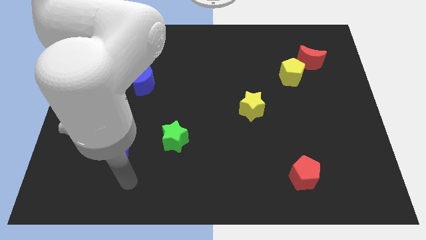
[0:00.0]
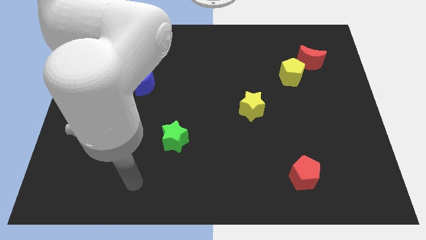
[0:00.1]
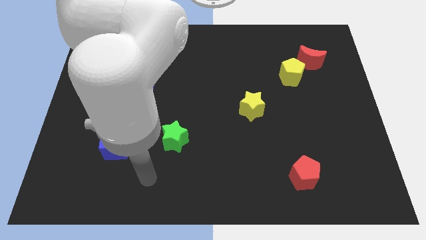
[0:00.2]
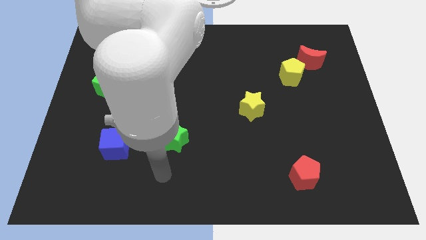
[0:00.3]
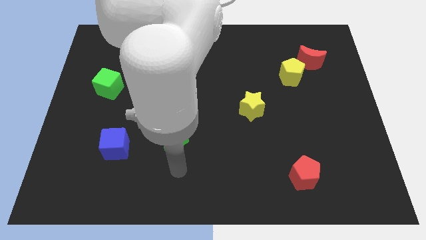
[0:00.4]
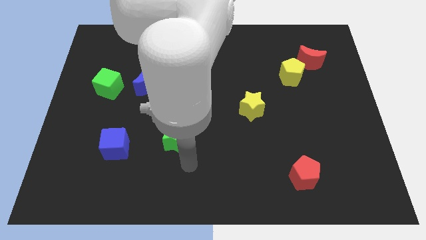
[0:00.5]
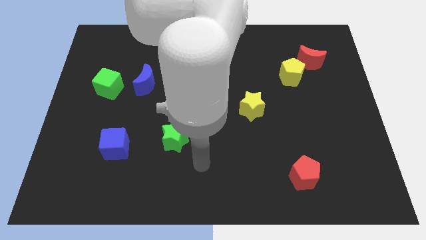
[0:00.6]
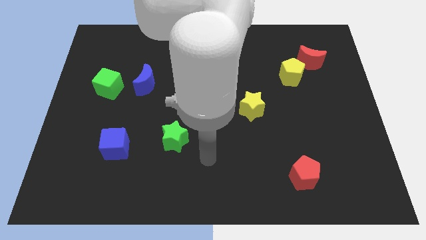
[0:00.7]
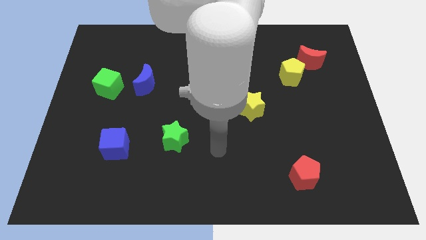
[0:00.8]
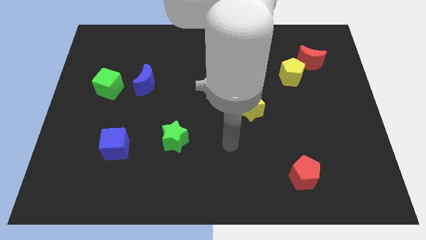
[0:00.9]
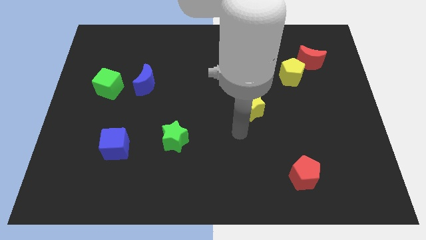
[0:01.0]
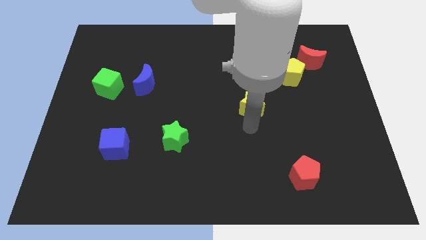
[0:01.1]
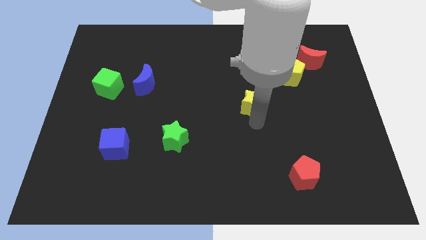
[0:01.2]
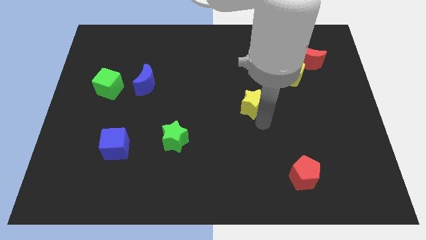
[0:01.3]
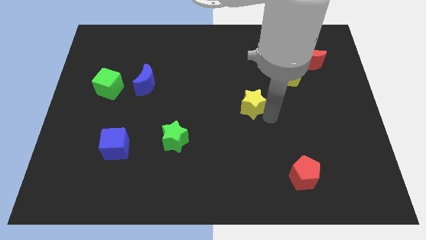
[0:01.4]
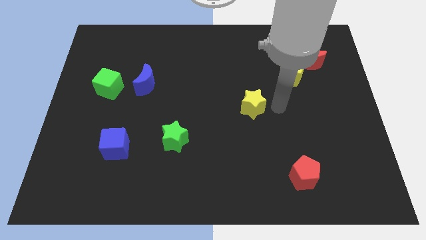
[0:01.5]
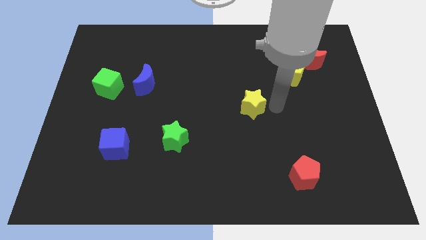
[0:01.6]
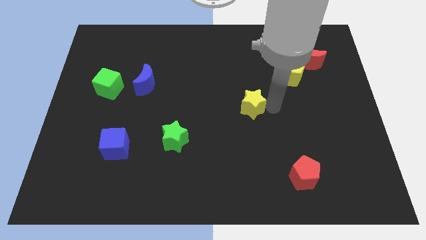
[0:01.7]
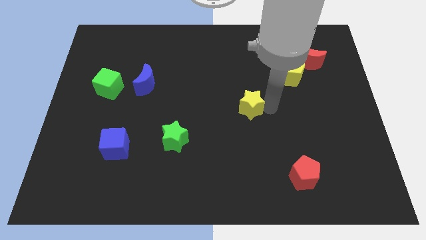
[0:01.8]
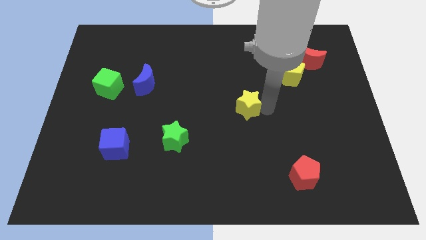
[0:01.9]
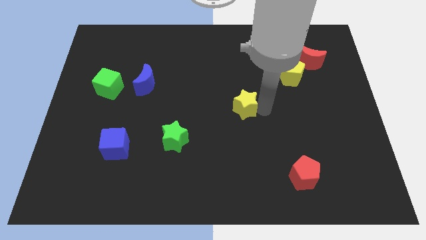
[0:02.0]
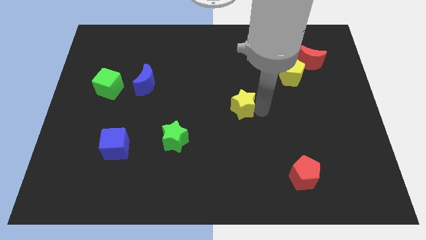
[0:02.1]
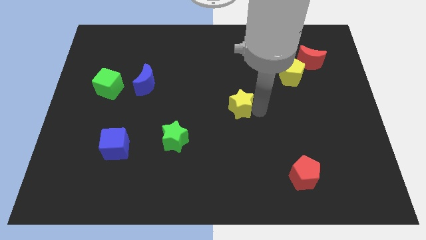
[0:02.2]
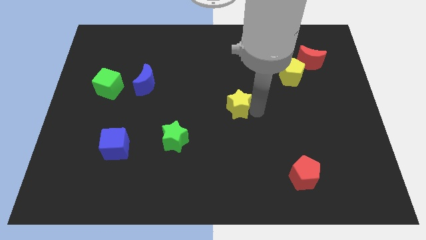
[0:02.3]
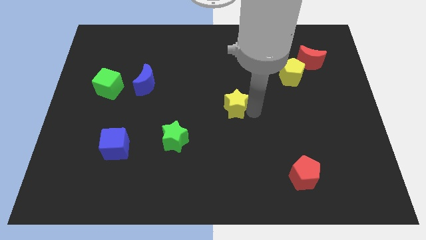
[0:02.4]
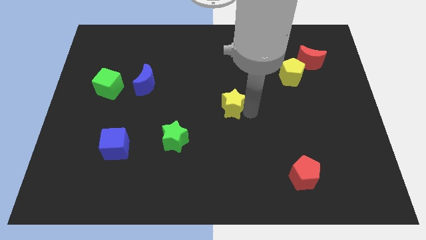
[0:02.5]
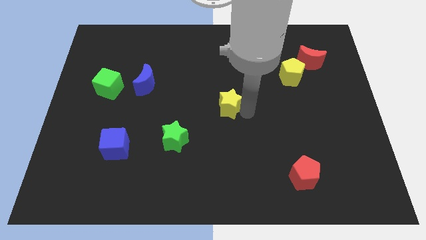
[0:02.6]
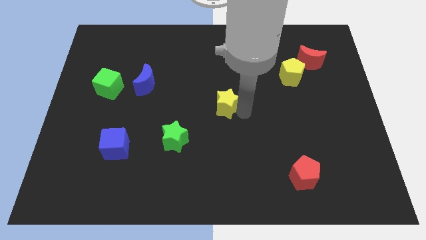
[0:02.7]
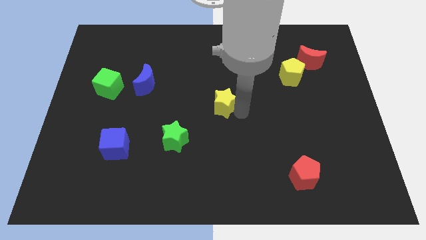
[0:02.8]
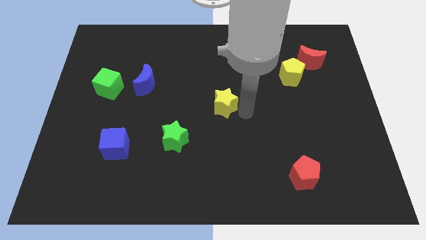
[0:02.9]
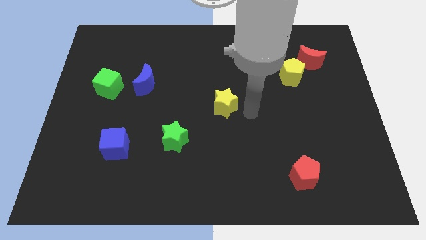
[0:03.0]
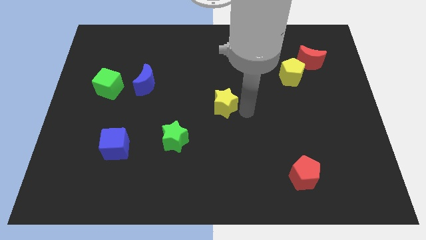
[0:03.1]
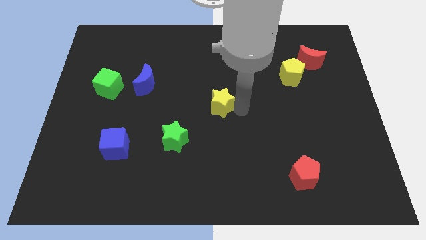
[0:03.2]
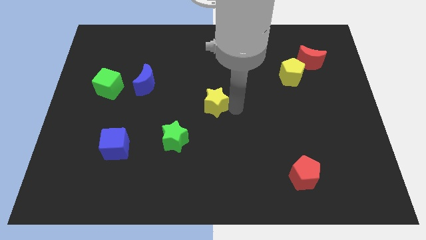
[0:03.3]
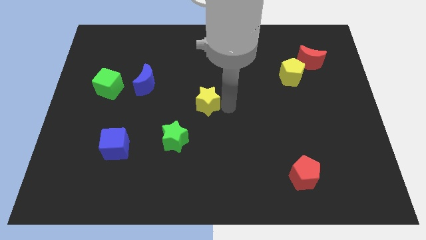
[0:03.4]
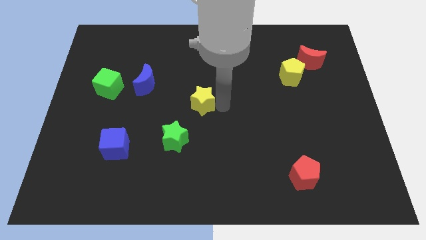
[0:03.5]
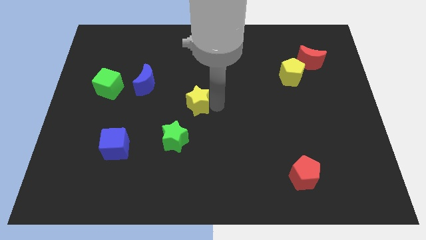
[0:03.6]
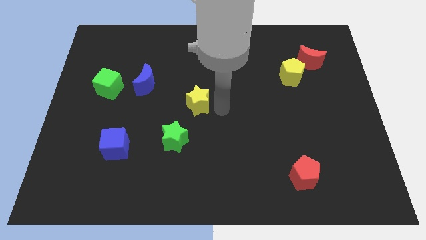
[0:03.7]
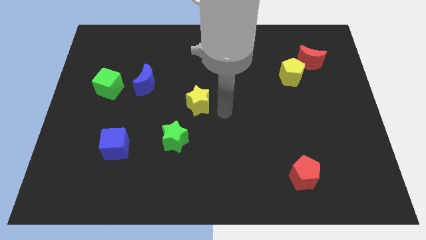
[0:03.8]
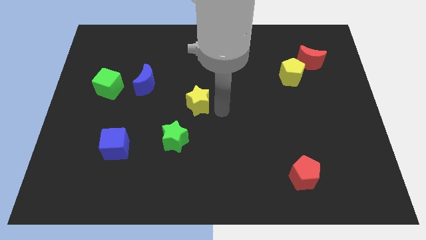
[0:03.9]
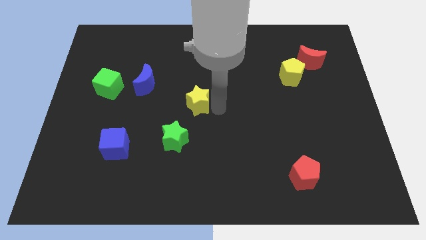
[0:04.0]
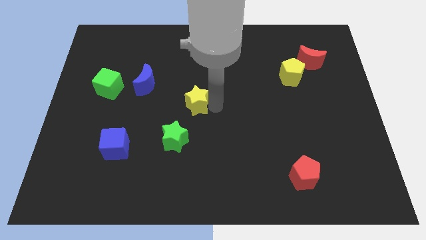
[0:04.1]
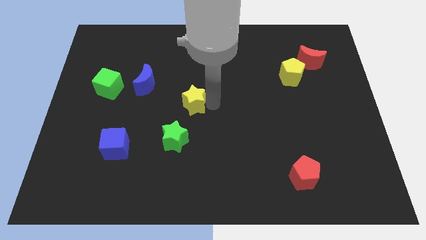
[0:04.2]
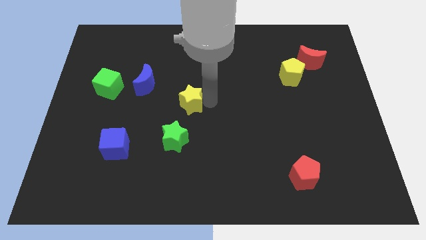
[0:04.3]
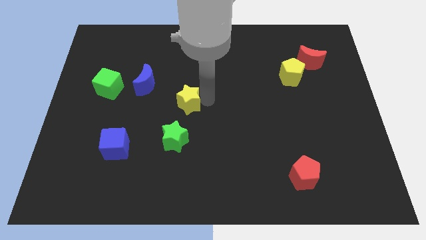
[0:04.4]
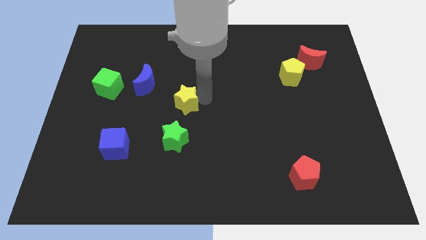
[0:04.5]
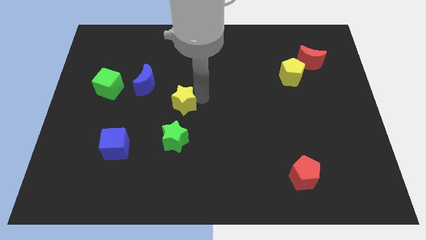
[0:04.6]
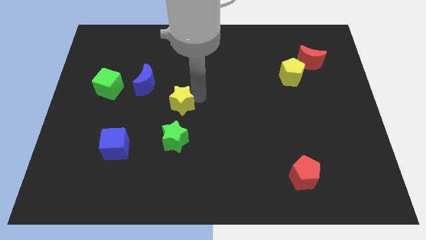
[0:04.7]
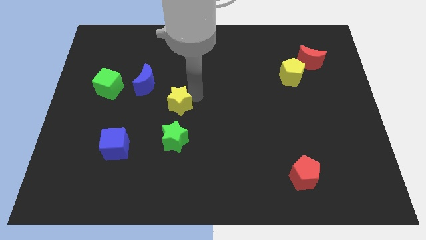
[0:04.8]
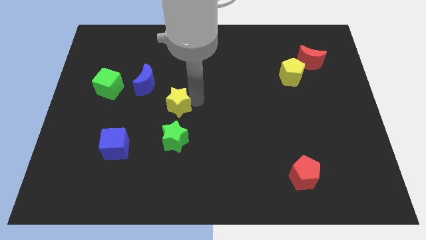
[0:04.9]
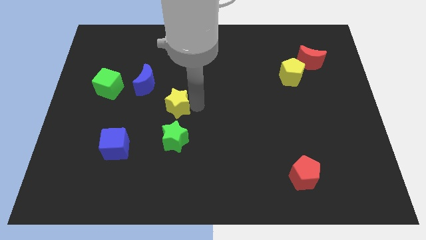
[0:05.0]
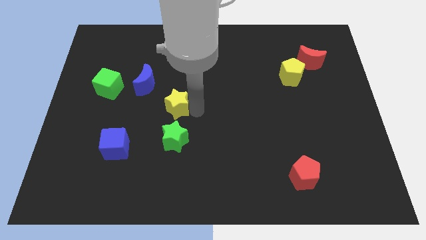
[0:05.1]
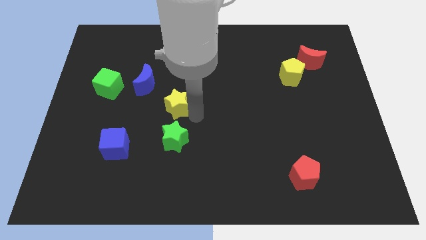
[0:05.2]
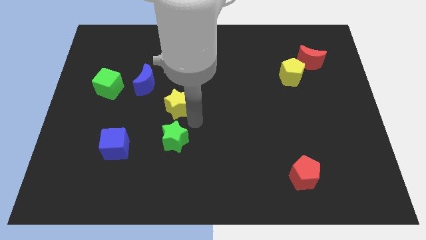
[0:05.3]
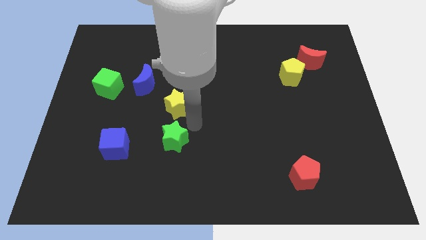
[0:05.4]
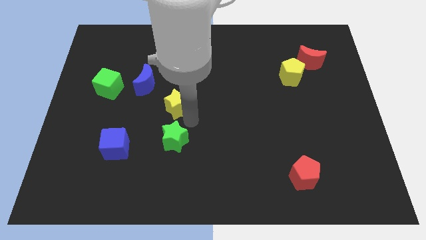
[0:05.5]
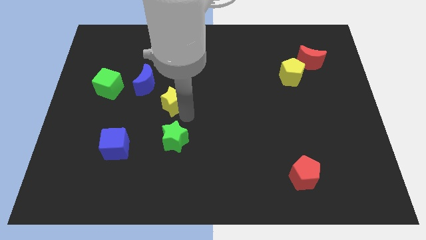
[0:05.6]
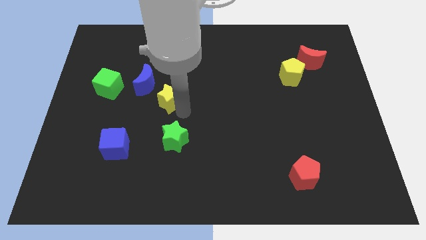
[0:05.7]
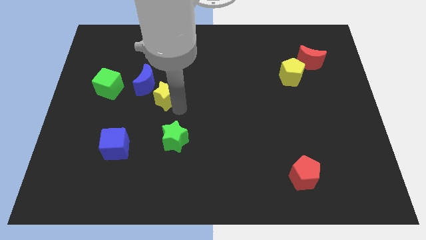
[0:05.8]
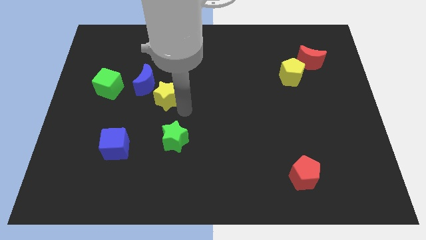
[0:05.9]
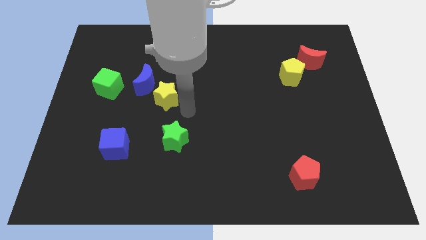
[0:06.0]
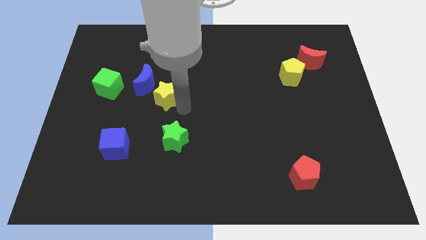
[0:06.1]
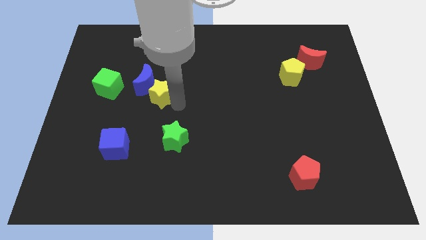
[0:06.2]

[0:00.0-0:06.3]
slide the yellow star to the blue moon
